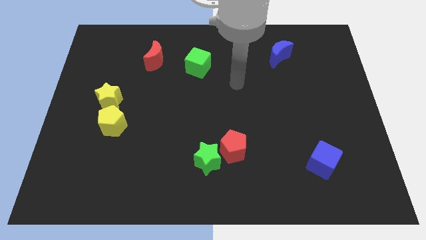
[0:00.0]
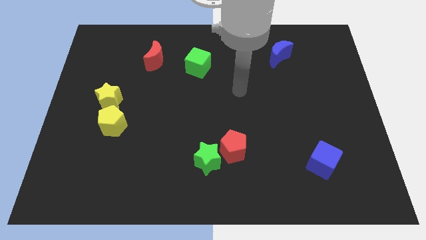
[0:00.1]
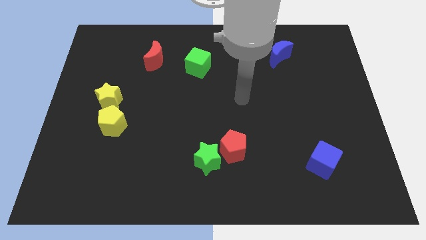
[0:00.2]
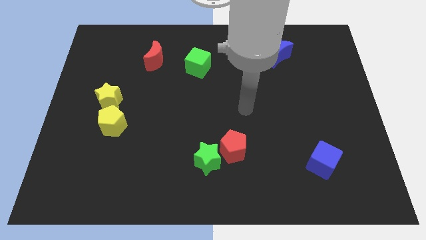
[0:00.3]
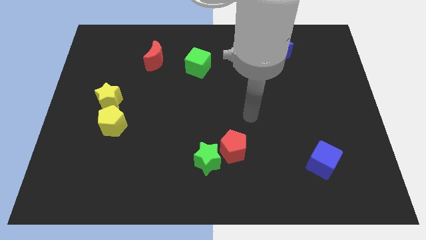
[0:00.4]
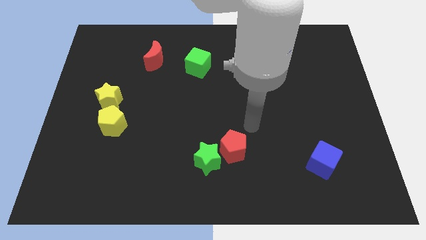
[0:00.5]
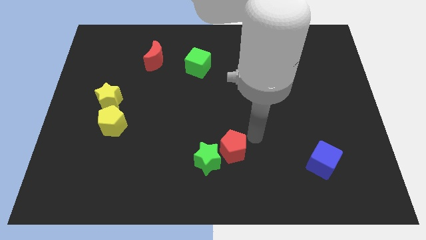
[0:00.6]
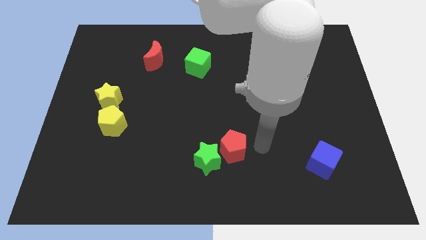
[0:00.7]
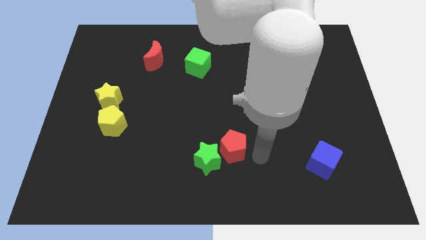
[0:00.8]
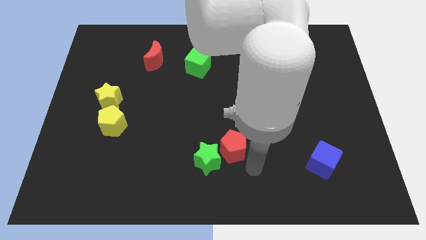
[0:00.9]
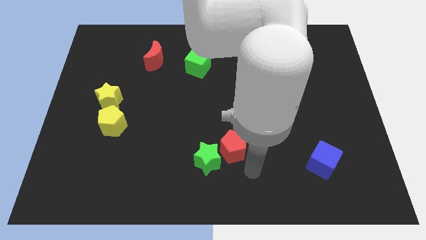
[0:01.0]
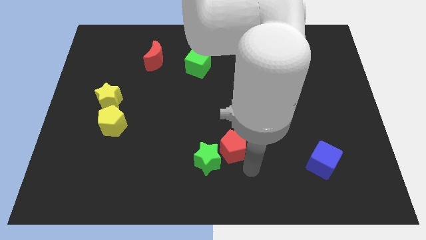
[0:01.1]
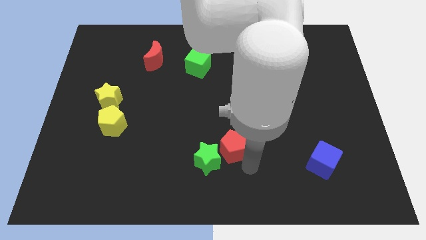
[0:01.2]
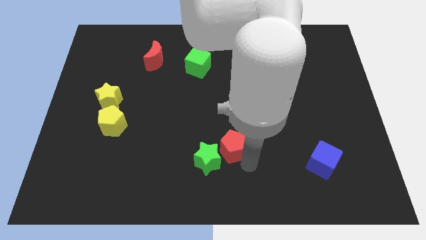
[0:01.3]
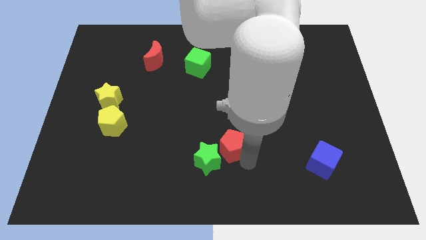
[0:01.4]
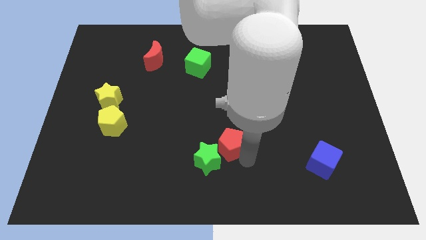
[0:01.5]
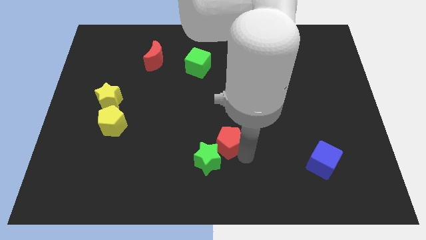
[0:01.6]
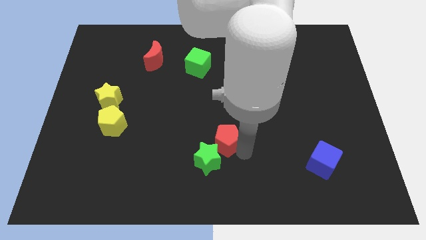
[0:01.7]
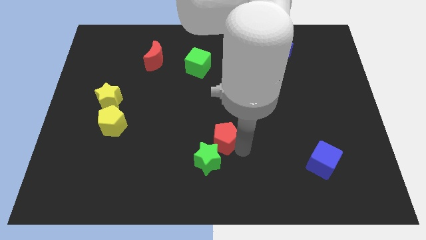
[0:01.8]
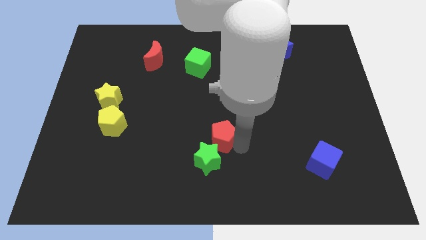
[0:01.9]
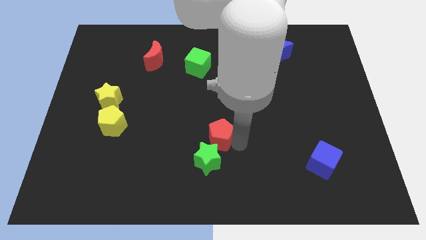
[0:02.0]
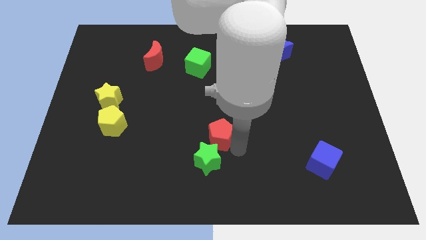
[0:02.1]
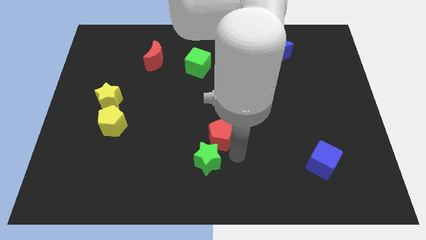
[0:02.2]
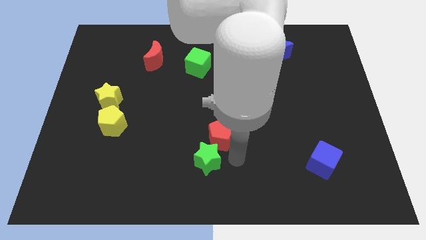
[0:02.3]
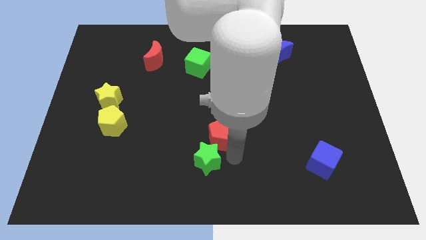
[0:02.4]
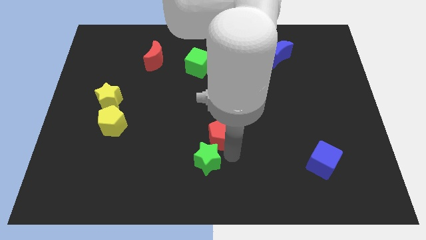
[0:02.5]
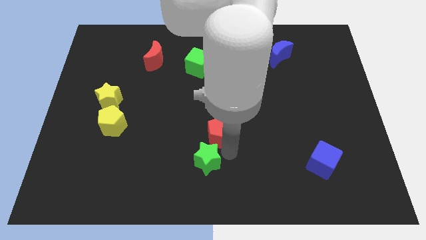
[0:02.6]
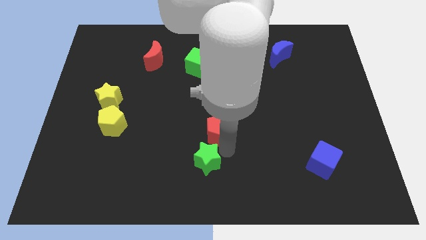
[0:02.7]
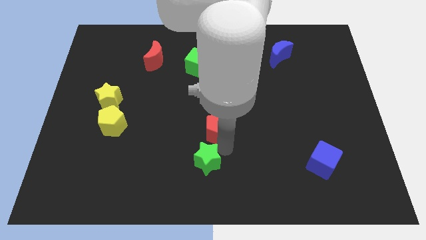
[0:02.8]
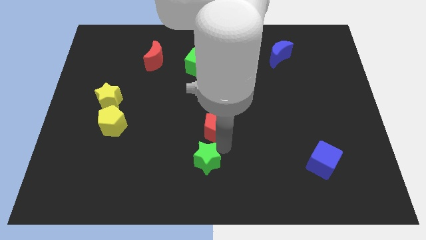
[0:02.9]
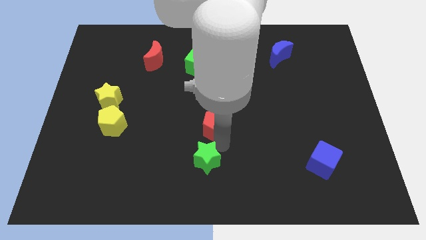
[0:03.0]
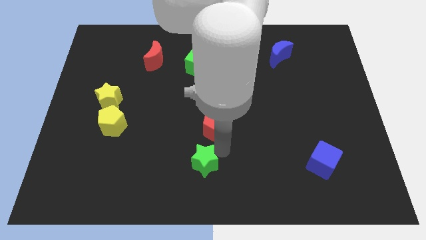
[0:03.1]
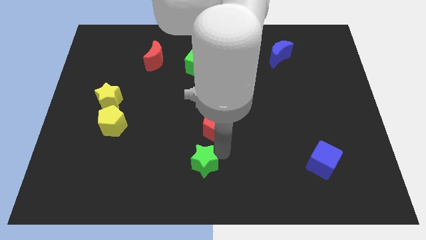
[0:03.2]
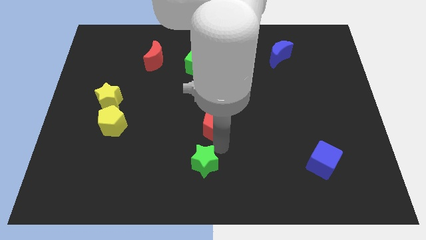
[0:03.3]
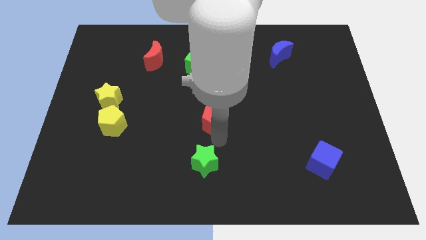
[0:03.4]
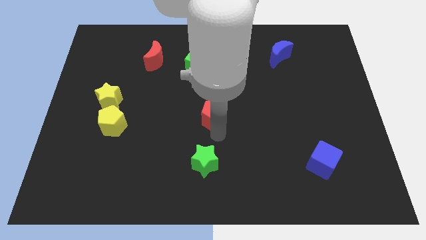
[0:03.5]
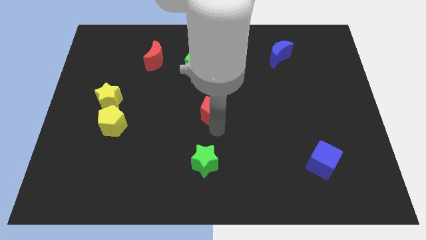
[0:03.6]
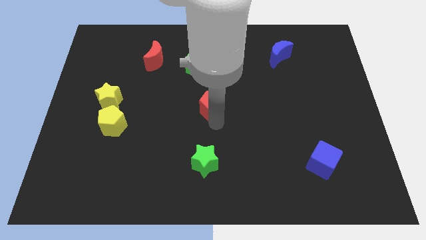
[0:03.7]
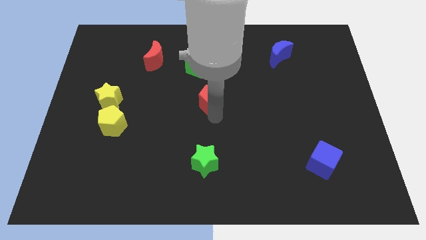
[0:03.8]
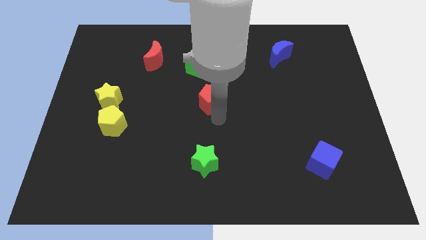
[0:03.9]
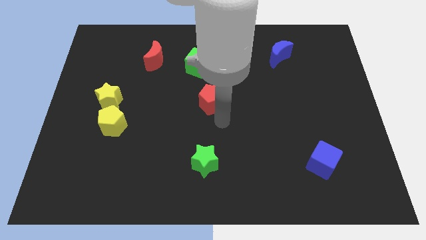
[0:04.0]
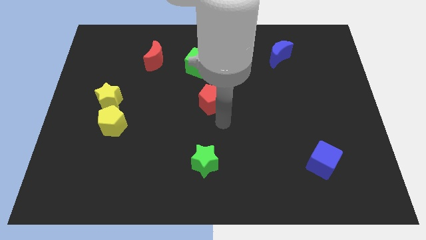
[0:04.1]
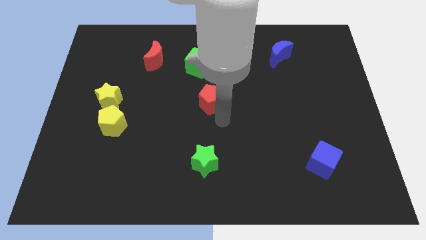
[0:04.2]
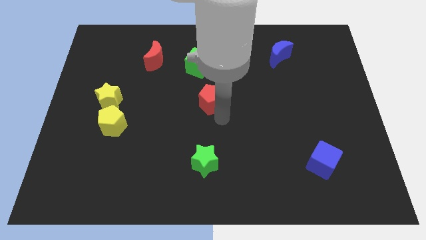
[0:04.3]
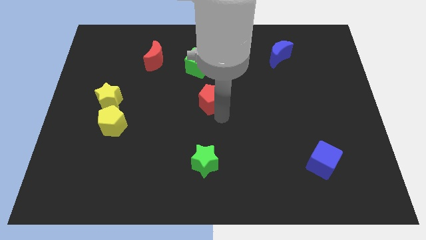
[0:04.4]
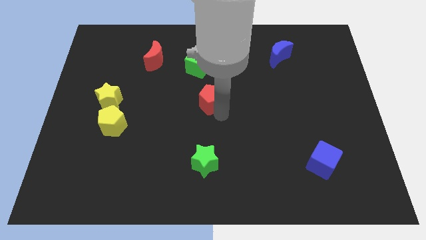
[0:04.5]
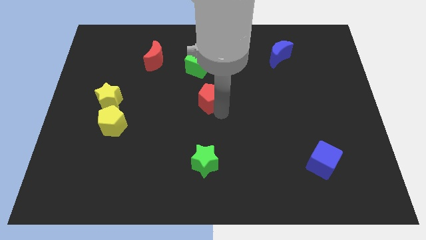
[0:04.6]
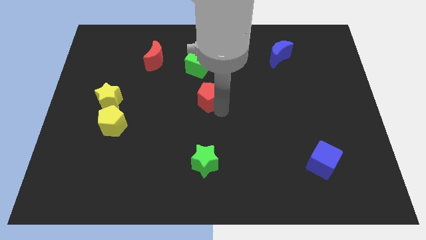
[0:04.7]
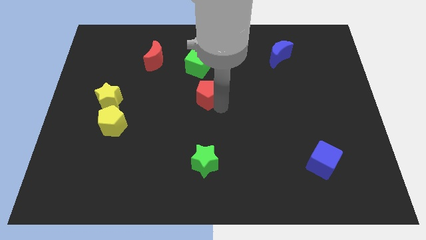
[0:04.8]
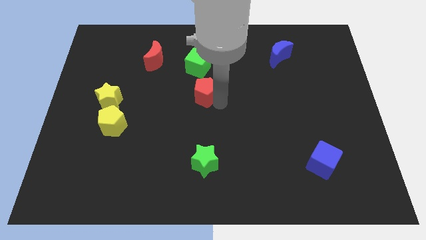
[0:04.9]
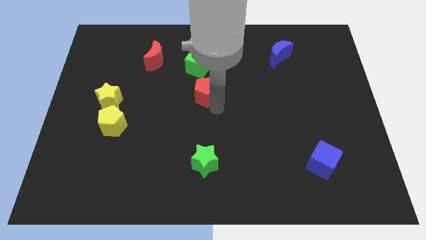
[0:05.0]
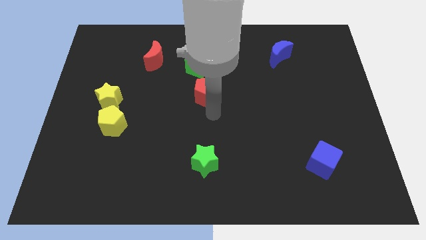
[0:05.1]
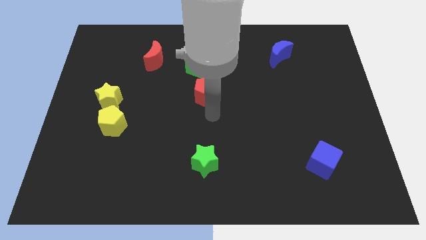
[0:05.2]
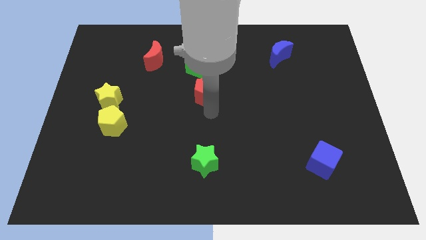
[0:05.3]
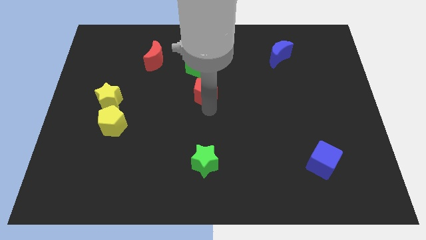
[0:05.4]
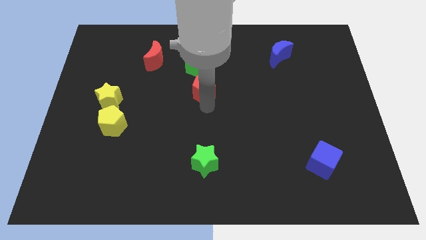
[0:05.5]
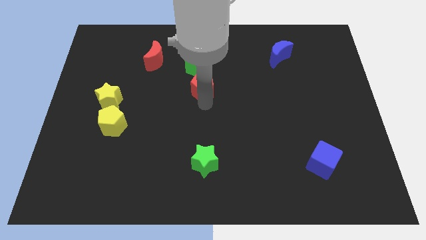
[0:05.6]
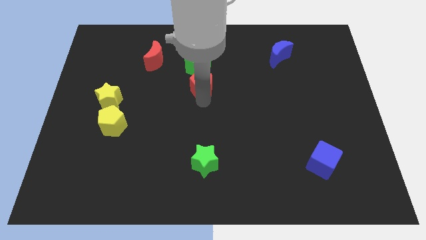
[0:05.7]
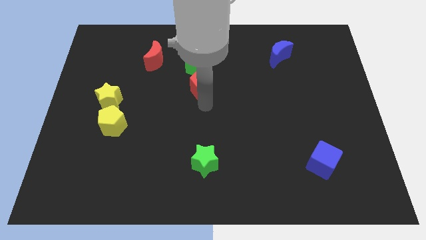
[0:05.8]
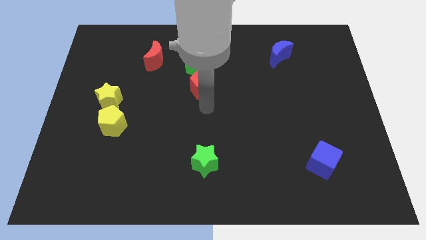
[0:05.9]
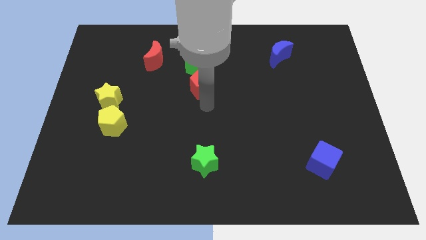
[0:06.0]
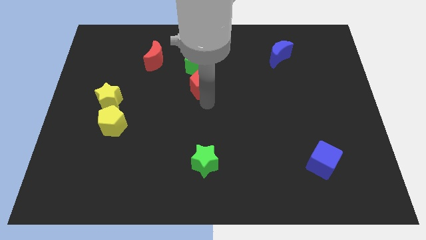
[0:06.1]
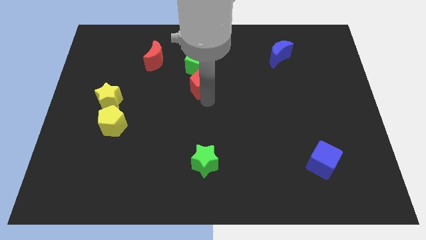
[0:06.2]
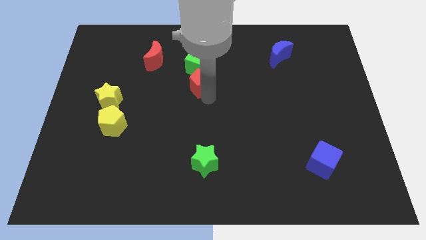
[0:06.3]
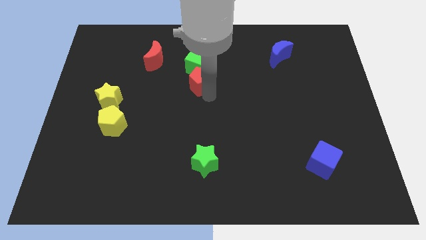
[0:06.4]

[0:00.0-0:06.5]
slide the red pentagon to the green cube

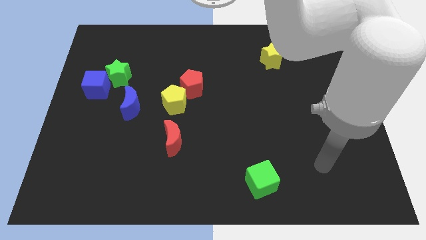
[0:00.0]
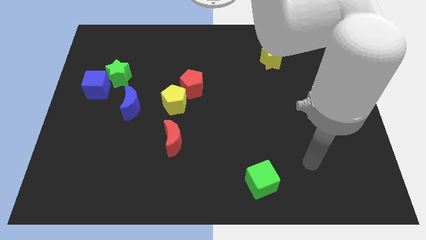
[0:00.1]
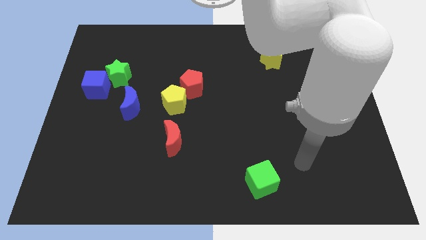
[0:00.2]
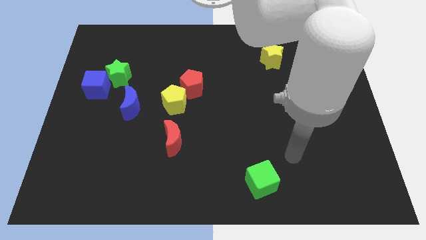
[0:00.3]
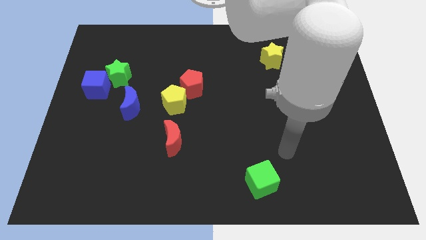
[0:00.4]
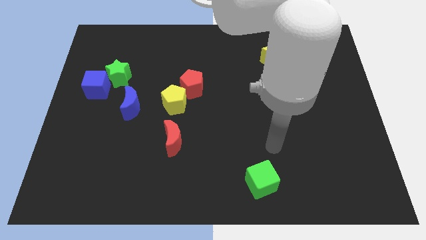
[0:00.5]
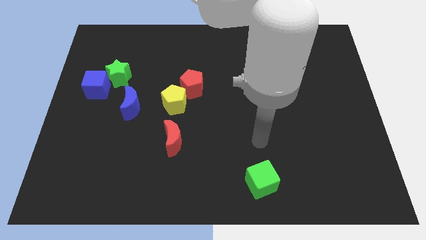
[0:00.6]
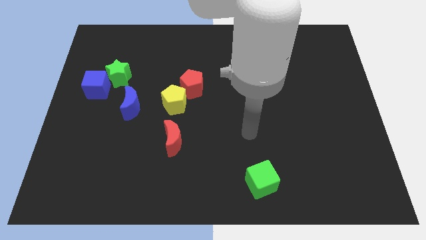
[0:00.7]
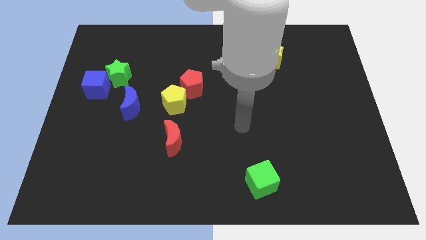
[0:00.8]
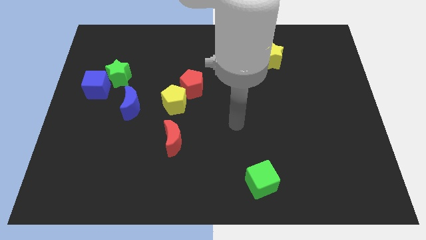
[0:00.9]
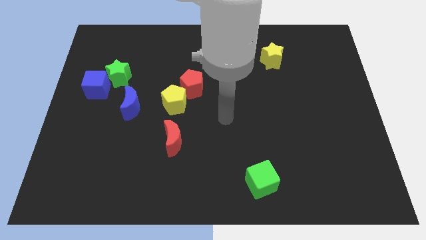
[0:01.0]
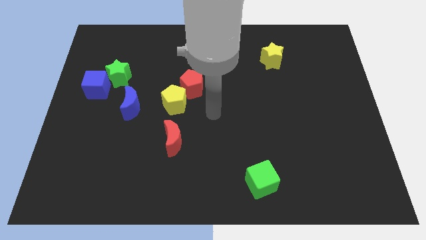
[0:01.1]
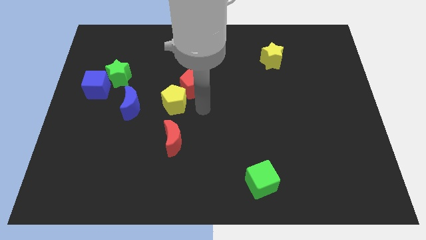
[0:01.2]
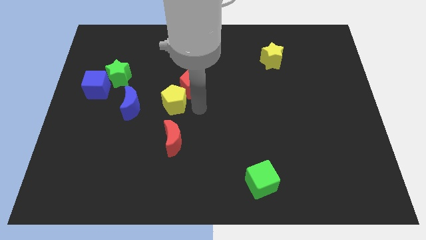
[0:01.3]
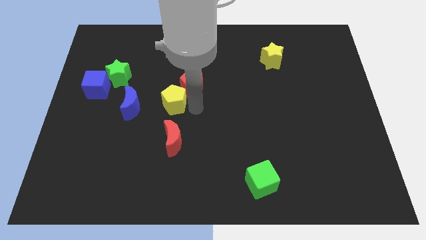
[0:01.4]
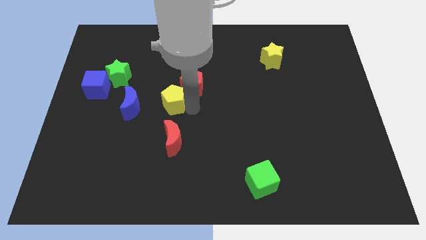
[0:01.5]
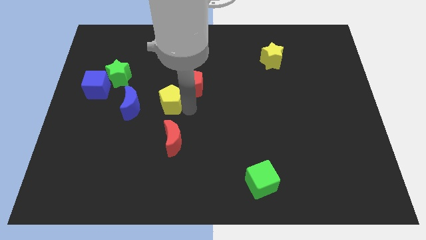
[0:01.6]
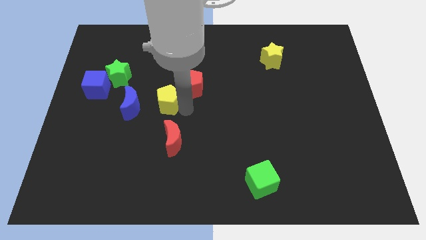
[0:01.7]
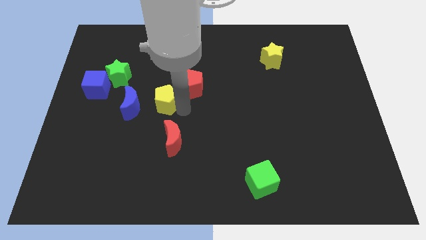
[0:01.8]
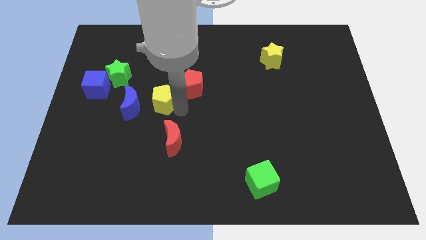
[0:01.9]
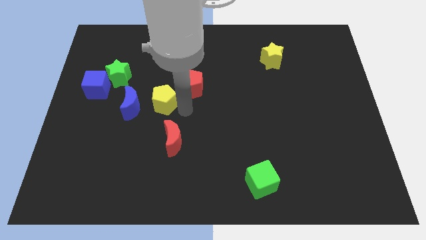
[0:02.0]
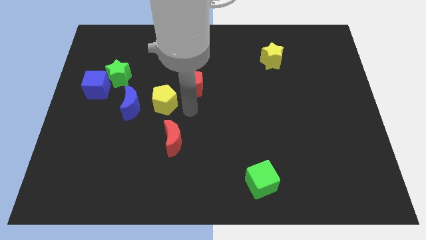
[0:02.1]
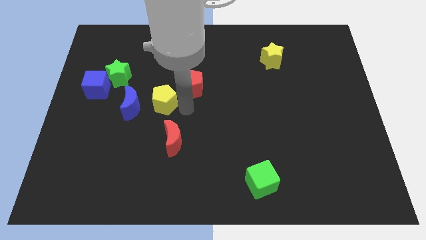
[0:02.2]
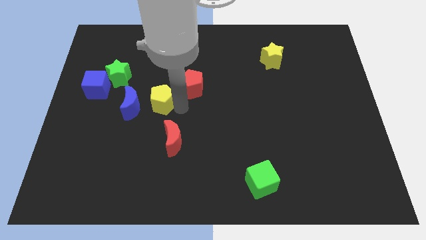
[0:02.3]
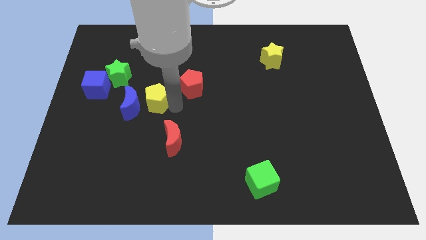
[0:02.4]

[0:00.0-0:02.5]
slide the yellow pentagon towards the blue moon
